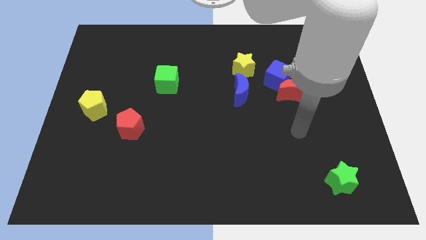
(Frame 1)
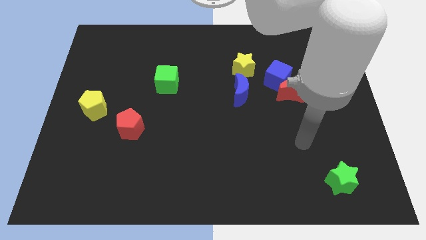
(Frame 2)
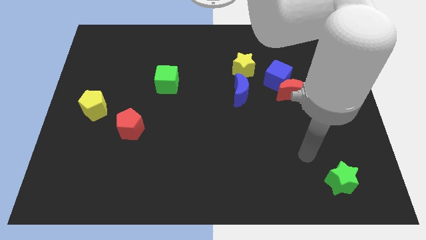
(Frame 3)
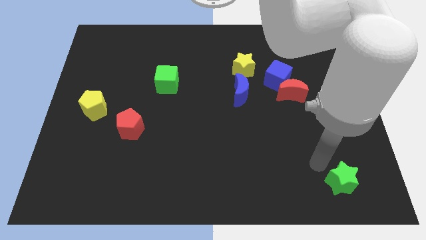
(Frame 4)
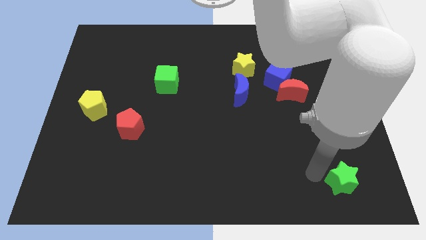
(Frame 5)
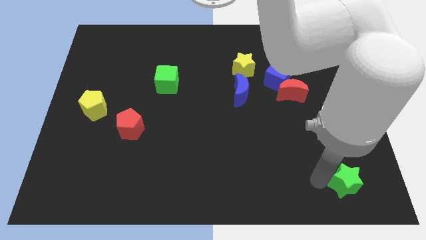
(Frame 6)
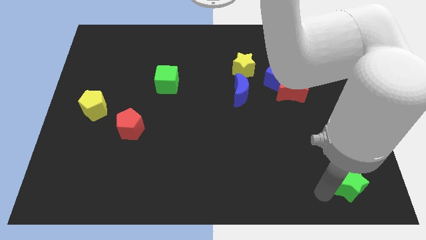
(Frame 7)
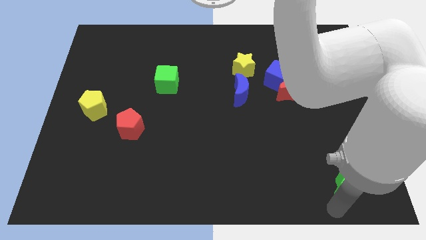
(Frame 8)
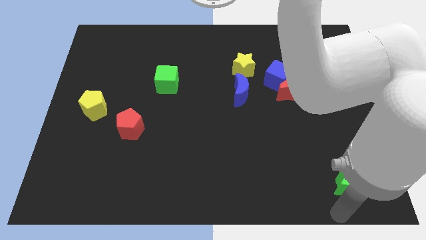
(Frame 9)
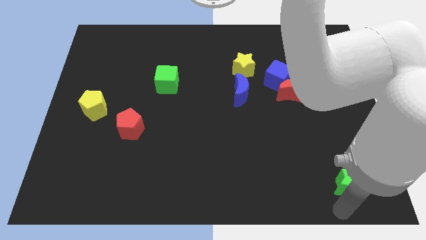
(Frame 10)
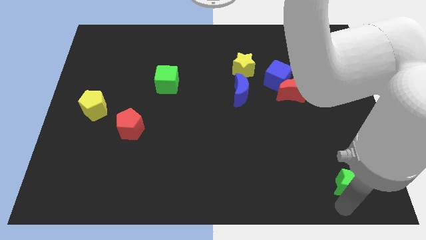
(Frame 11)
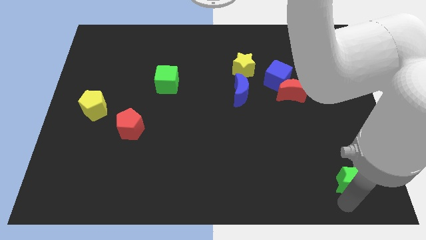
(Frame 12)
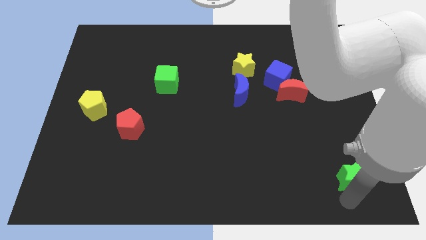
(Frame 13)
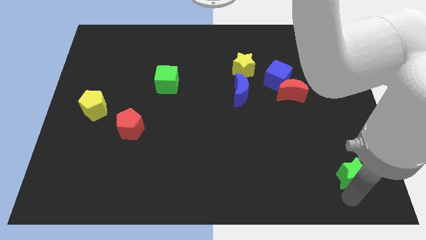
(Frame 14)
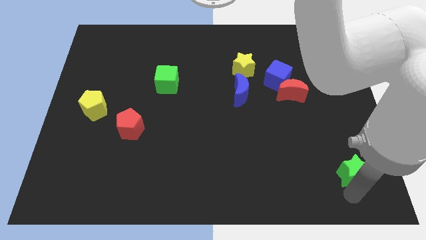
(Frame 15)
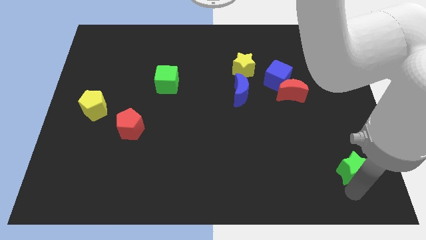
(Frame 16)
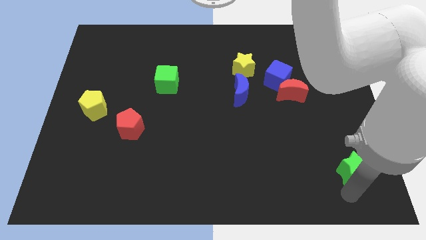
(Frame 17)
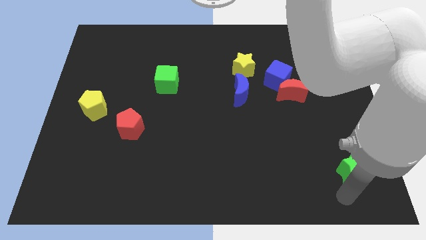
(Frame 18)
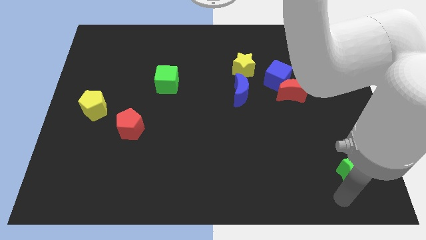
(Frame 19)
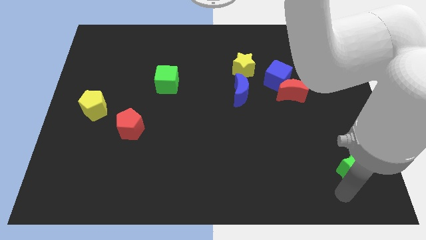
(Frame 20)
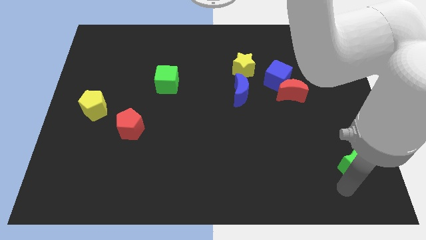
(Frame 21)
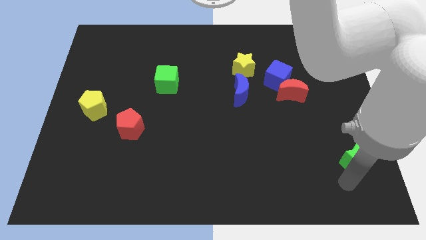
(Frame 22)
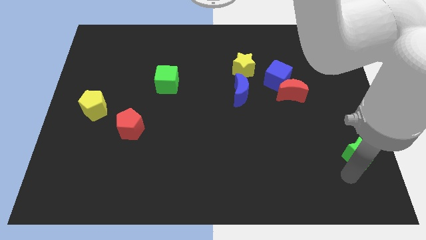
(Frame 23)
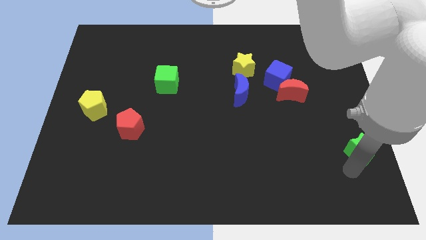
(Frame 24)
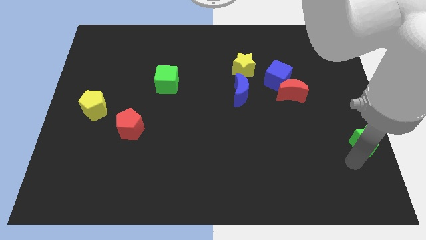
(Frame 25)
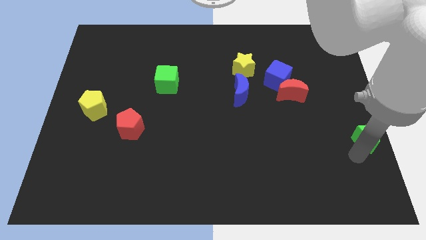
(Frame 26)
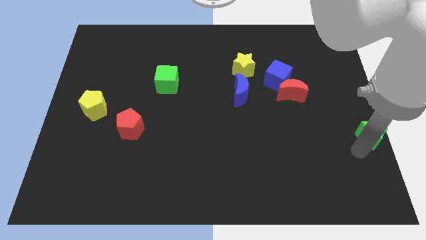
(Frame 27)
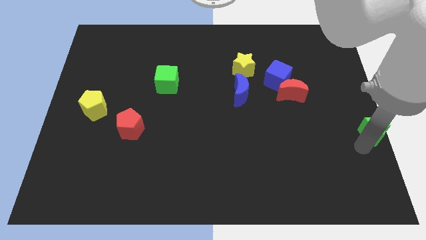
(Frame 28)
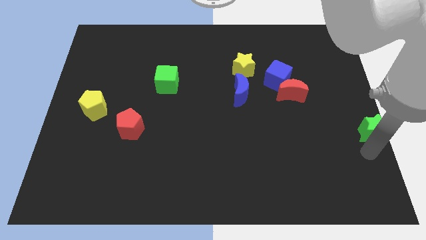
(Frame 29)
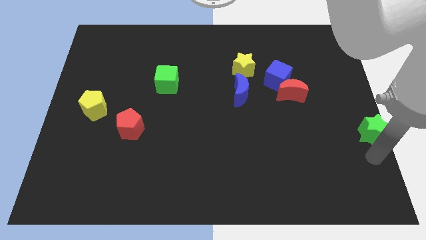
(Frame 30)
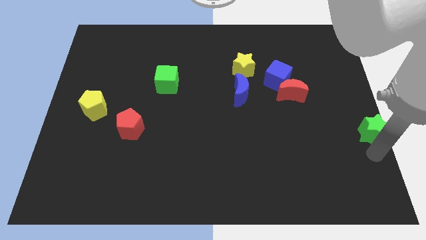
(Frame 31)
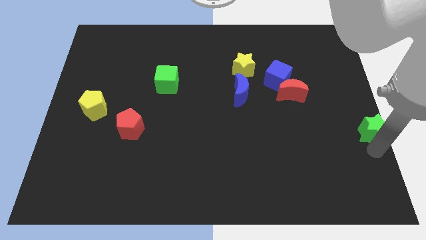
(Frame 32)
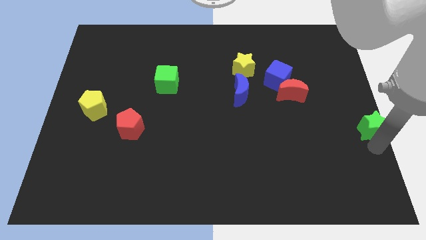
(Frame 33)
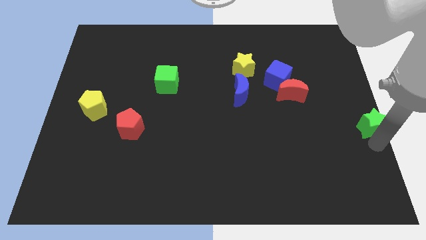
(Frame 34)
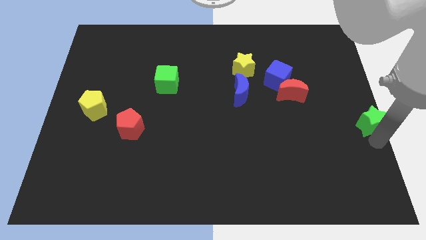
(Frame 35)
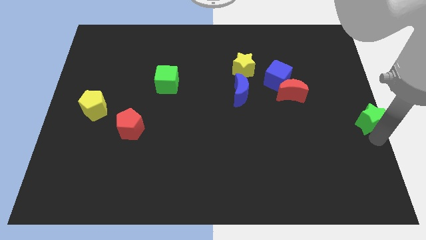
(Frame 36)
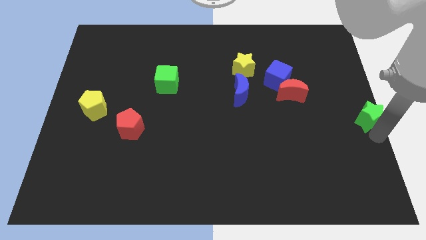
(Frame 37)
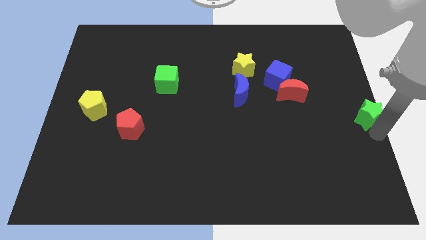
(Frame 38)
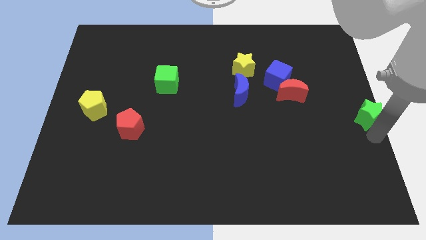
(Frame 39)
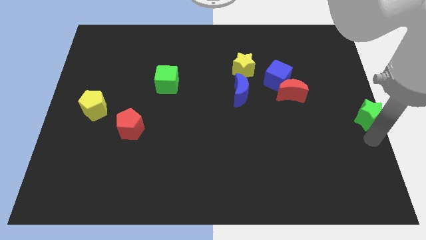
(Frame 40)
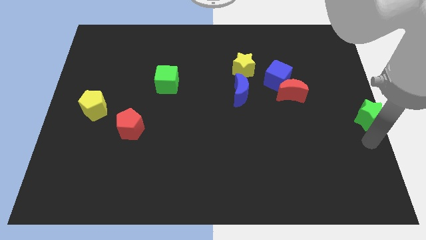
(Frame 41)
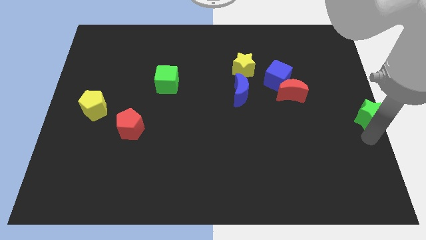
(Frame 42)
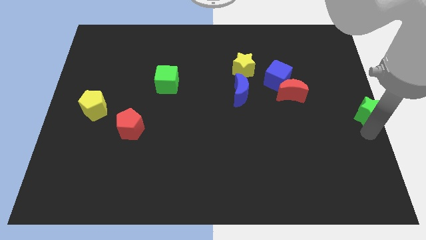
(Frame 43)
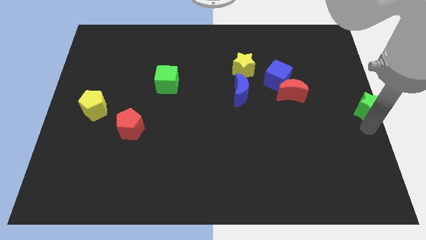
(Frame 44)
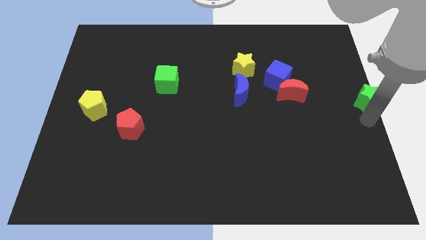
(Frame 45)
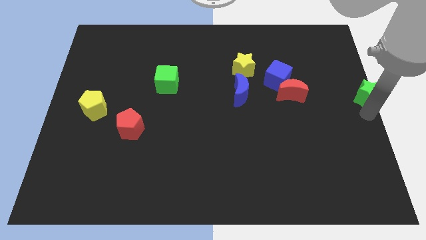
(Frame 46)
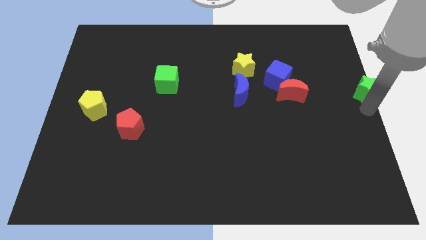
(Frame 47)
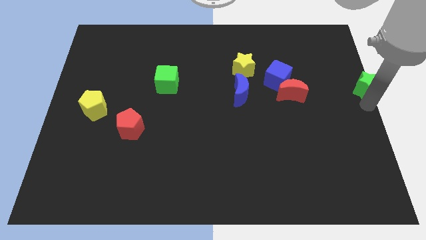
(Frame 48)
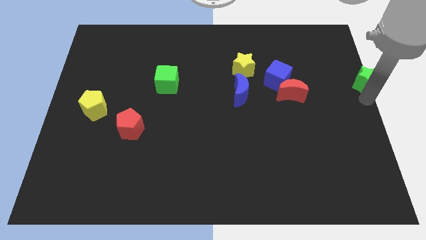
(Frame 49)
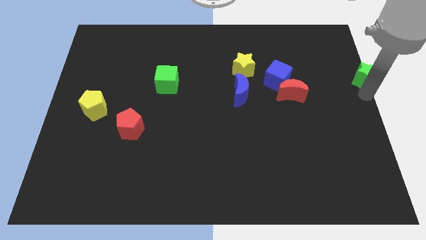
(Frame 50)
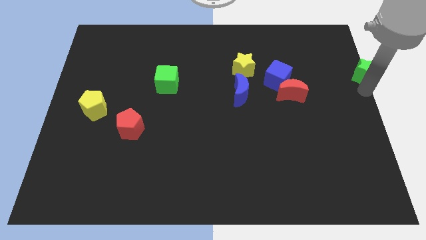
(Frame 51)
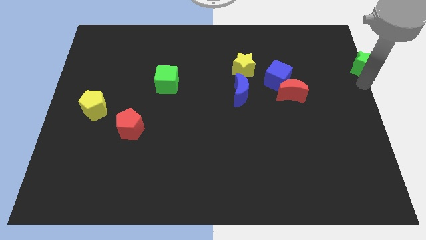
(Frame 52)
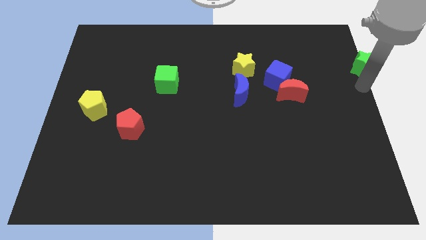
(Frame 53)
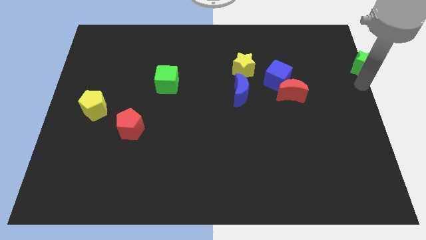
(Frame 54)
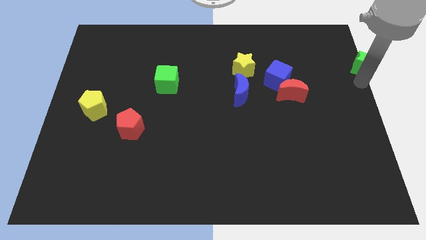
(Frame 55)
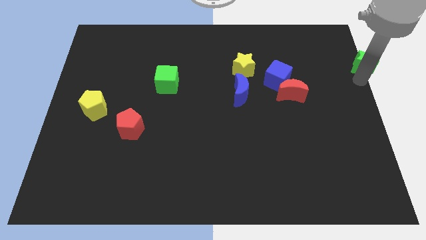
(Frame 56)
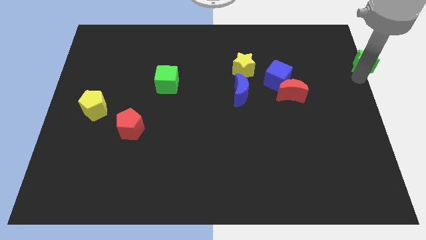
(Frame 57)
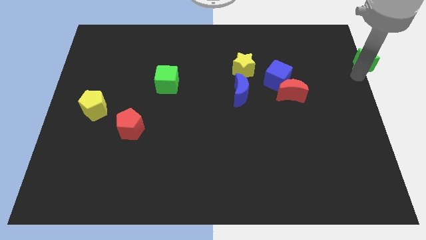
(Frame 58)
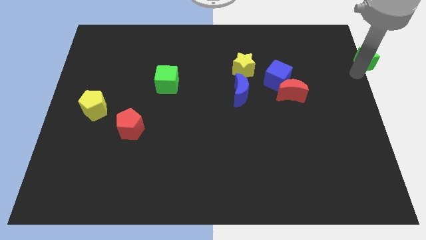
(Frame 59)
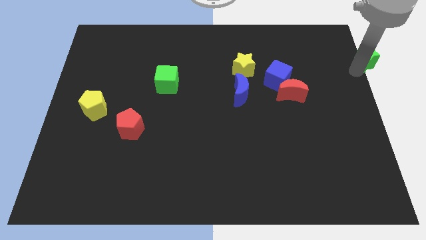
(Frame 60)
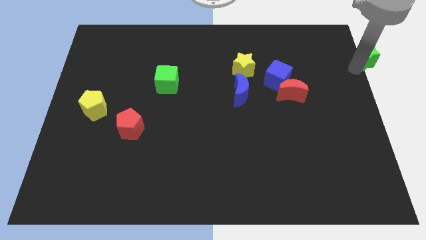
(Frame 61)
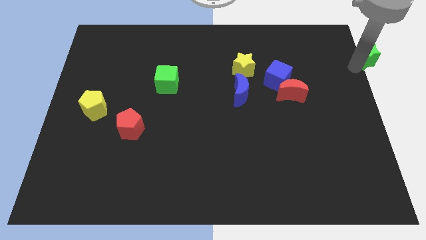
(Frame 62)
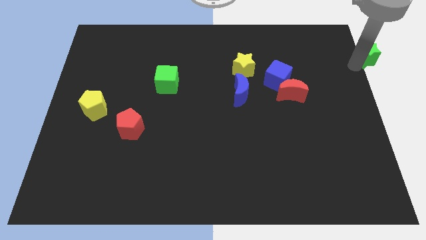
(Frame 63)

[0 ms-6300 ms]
move the green star to the top right
